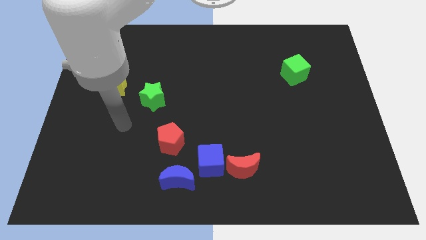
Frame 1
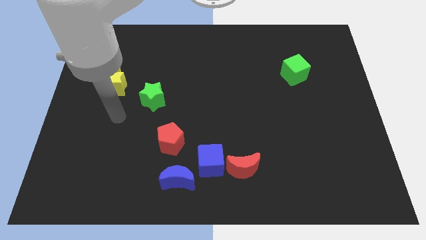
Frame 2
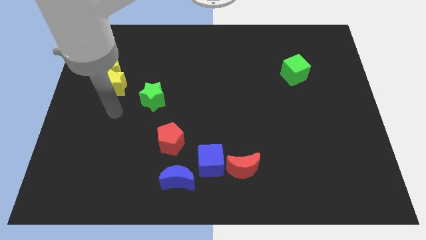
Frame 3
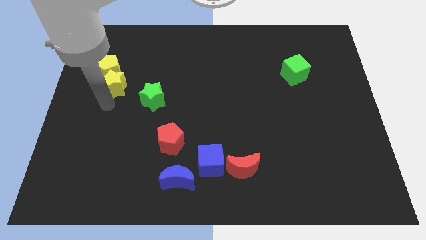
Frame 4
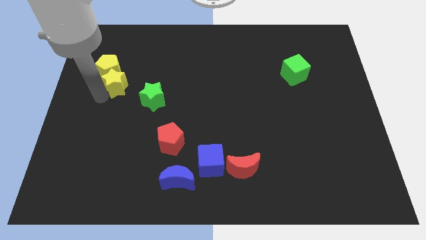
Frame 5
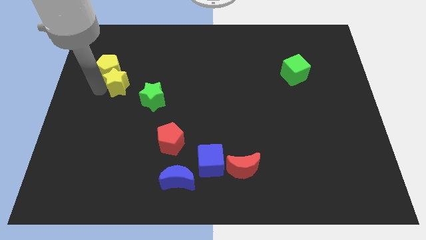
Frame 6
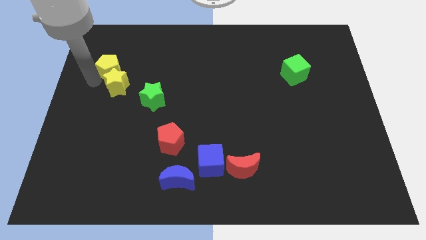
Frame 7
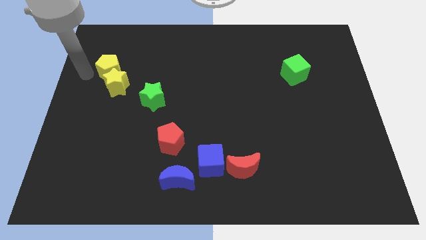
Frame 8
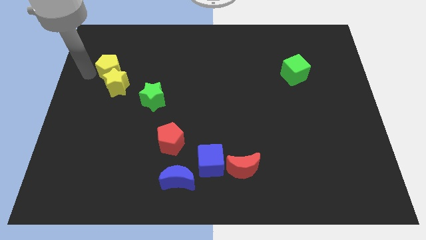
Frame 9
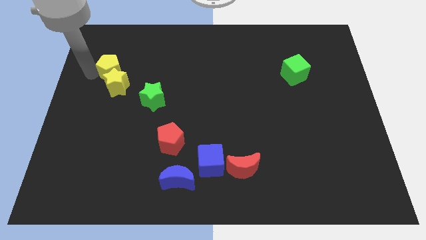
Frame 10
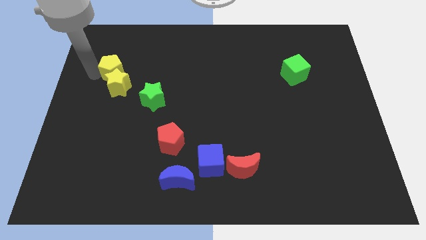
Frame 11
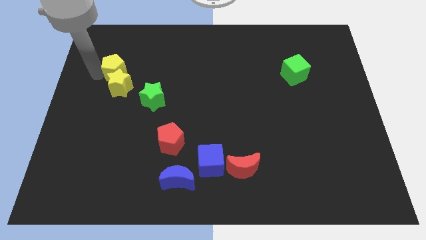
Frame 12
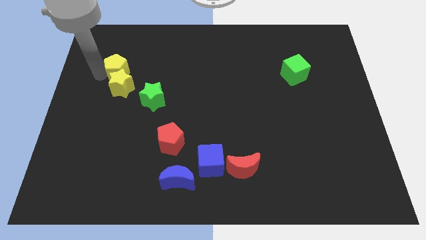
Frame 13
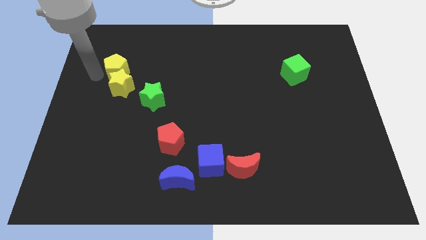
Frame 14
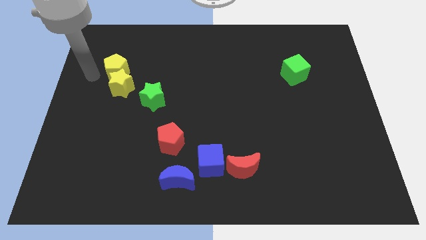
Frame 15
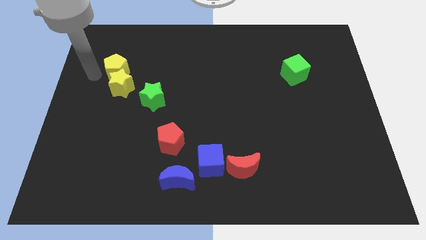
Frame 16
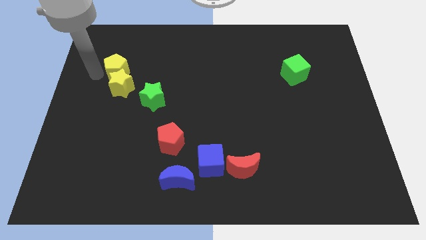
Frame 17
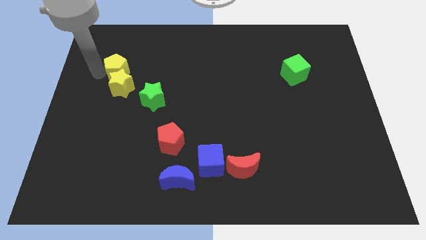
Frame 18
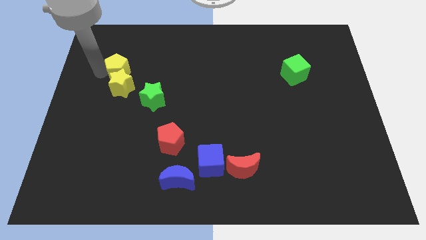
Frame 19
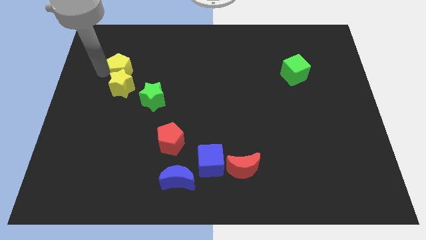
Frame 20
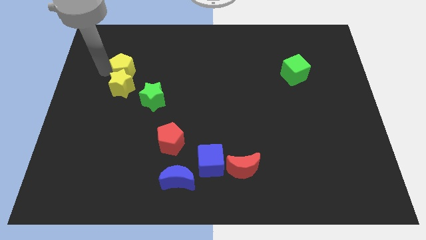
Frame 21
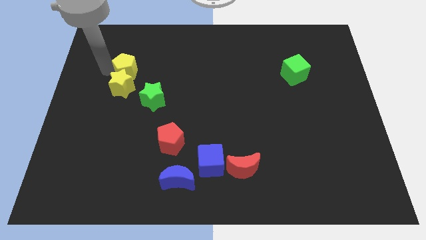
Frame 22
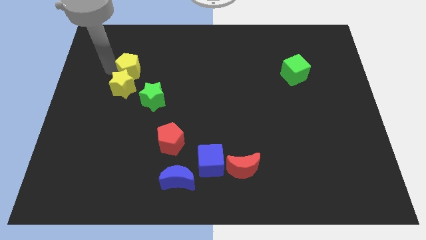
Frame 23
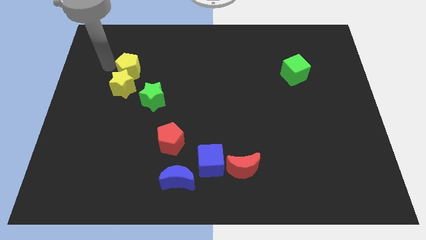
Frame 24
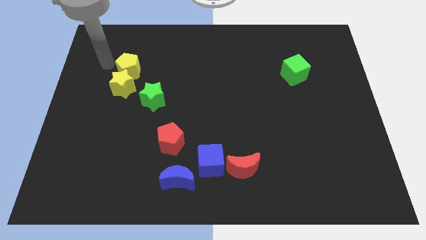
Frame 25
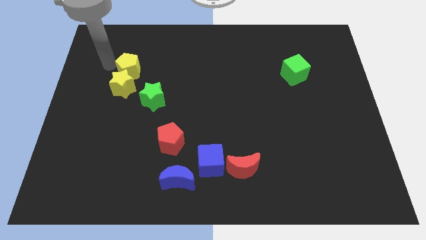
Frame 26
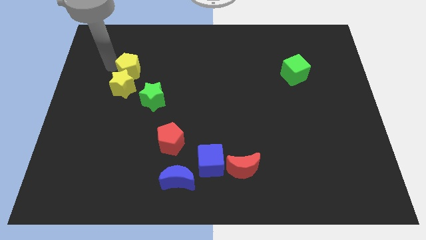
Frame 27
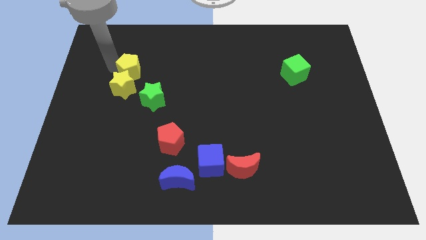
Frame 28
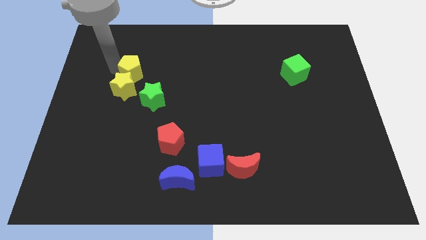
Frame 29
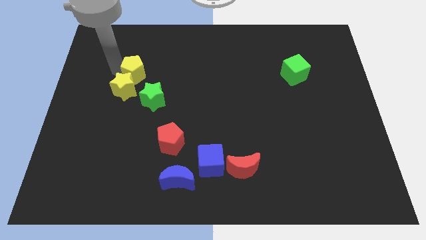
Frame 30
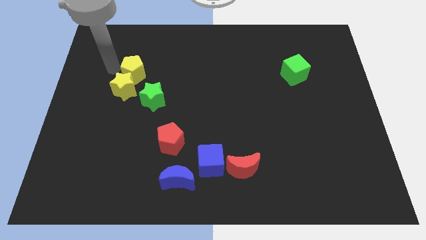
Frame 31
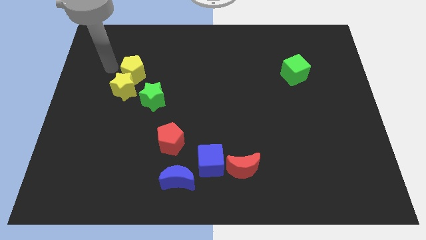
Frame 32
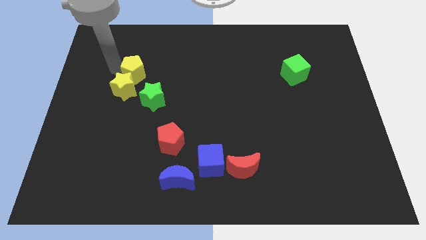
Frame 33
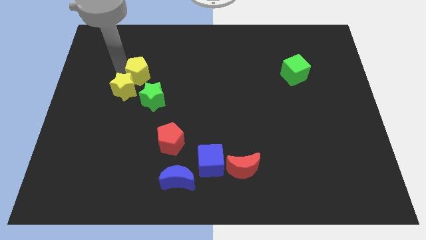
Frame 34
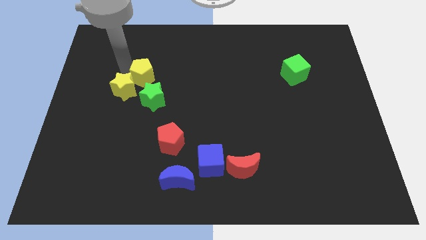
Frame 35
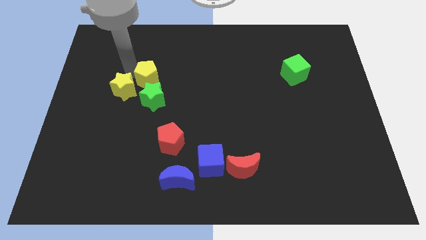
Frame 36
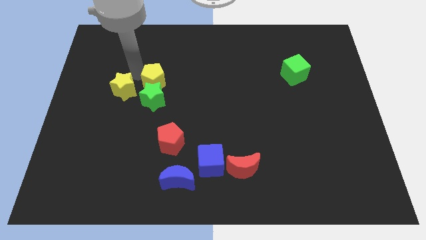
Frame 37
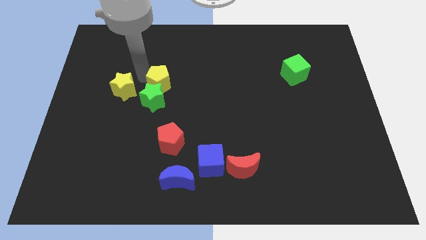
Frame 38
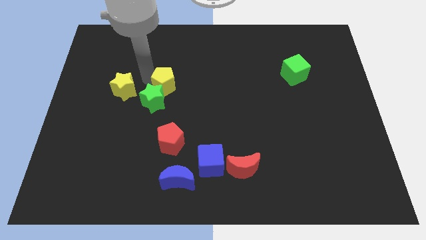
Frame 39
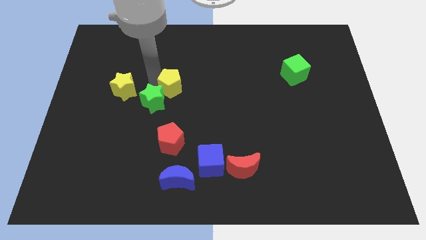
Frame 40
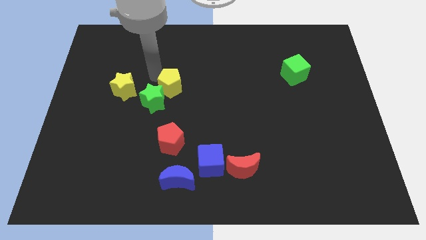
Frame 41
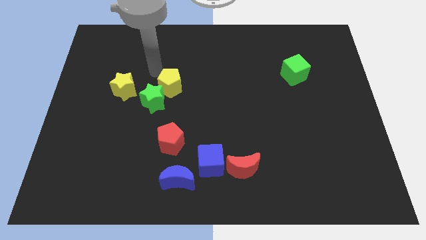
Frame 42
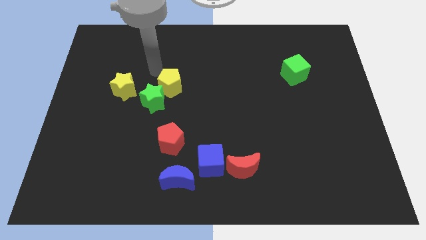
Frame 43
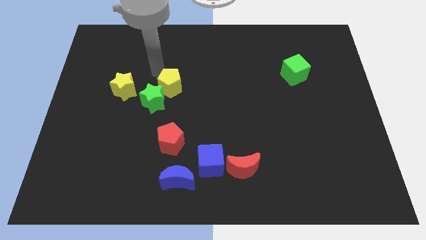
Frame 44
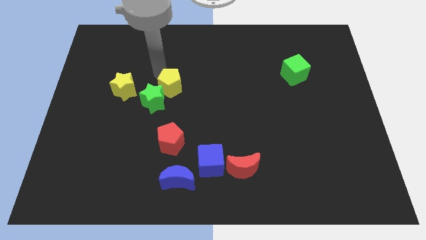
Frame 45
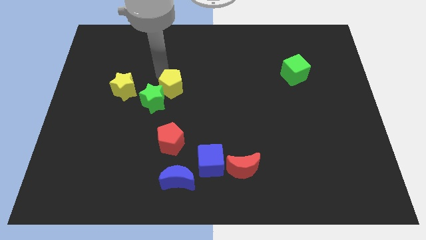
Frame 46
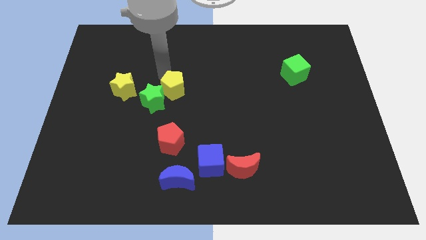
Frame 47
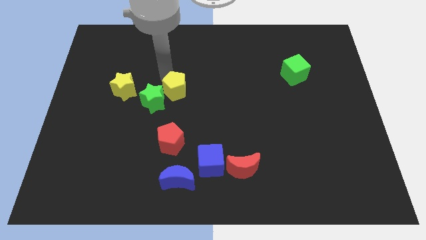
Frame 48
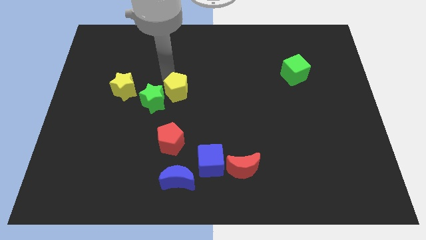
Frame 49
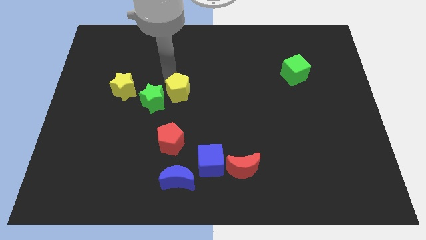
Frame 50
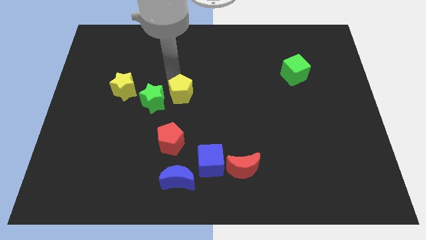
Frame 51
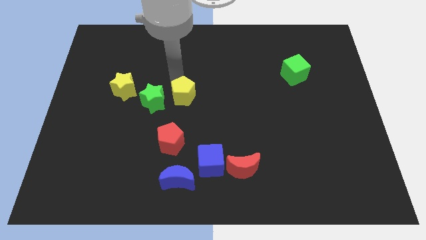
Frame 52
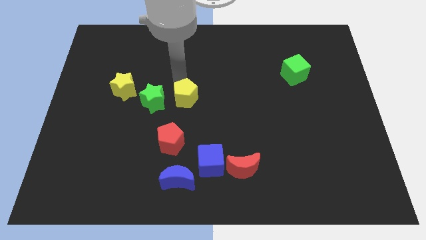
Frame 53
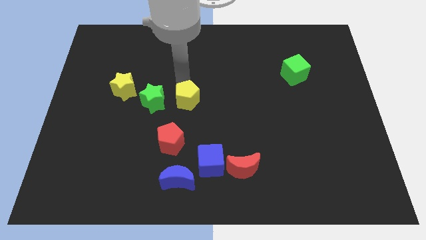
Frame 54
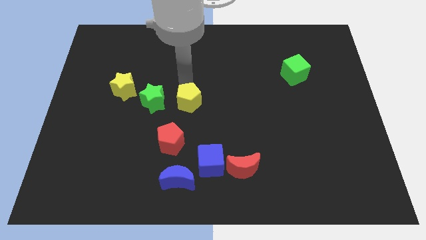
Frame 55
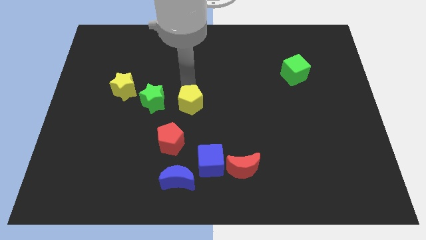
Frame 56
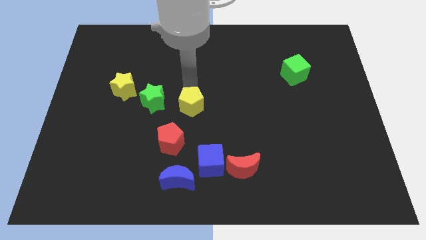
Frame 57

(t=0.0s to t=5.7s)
slide the yellow pentagon diagonally down and to the right

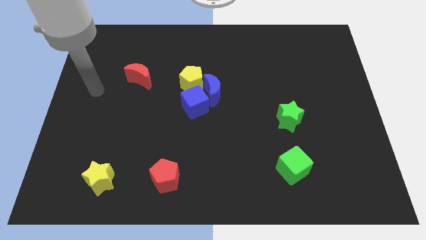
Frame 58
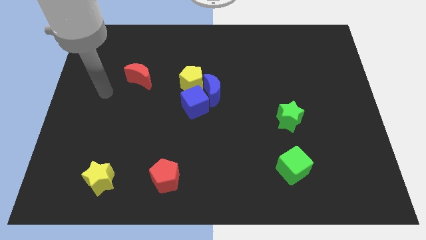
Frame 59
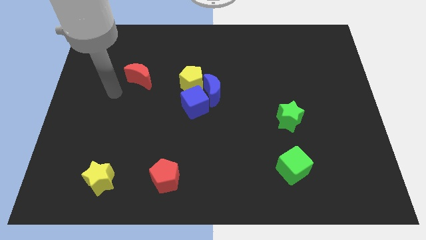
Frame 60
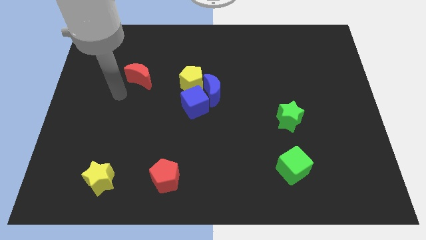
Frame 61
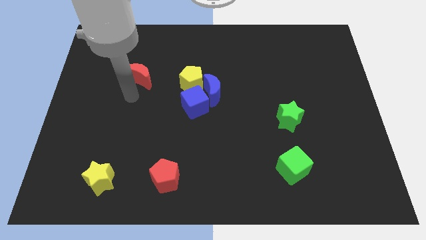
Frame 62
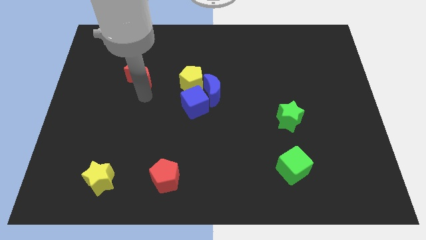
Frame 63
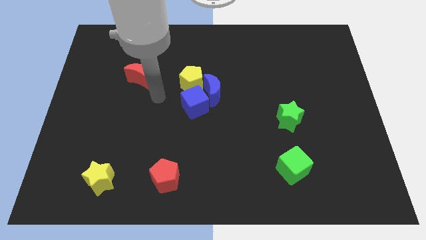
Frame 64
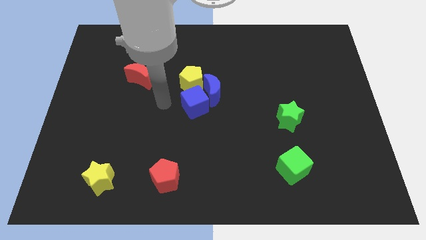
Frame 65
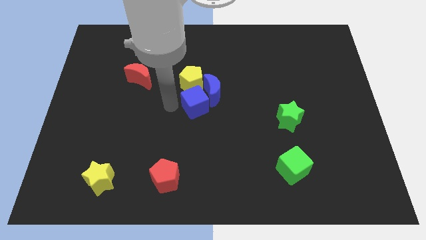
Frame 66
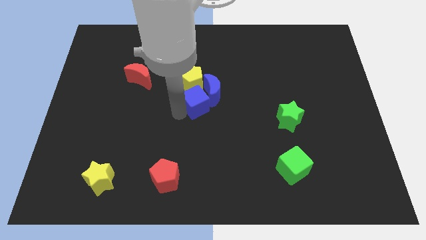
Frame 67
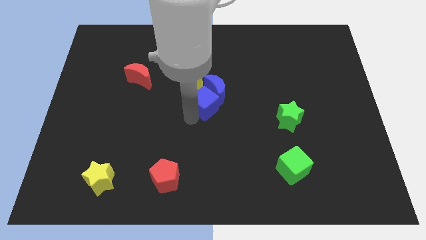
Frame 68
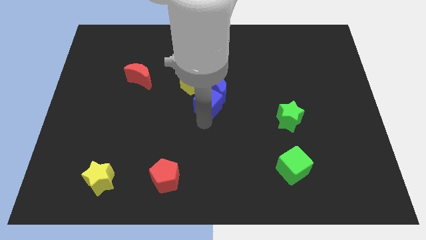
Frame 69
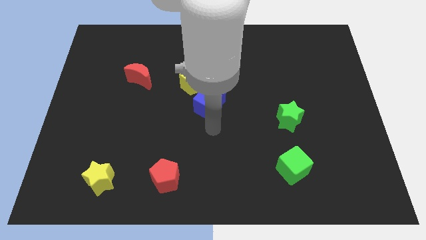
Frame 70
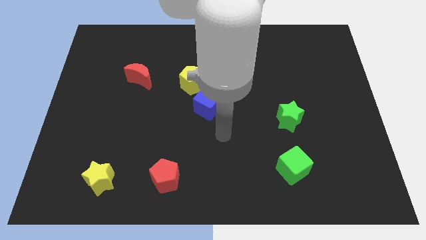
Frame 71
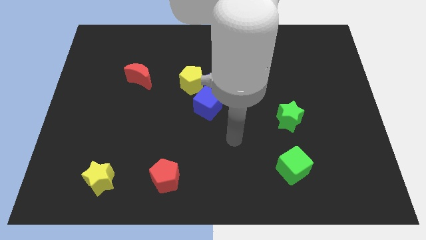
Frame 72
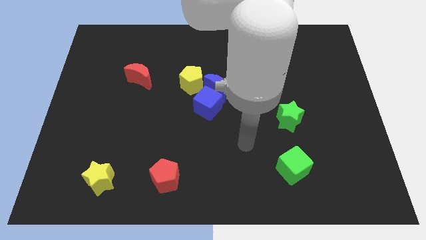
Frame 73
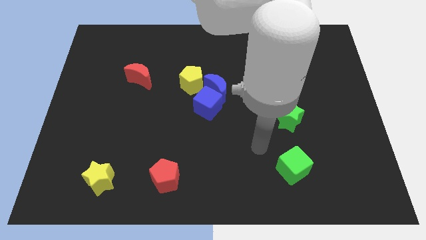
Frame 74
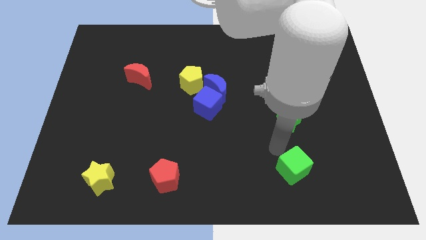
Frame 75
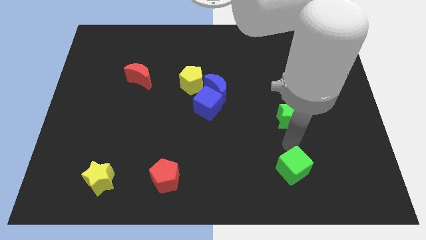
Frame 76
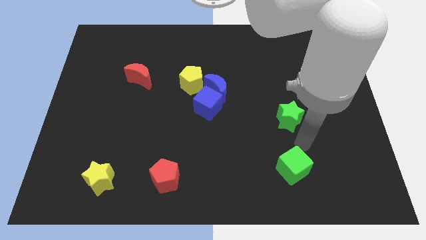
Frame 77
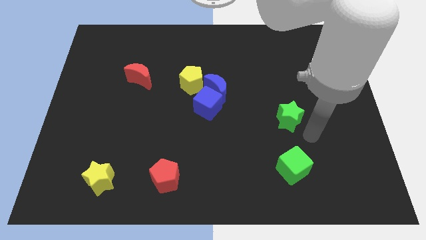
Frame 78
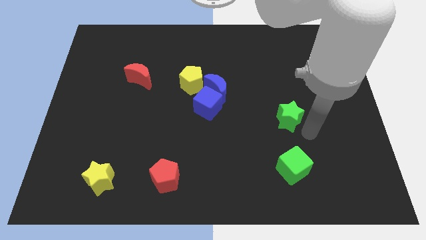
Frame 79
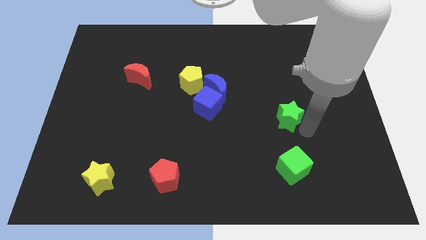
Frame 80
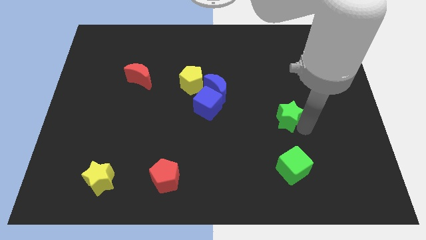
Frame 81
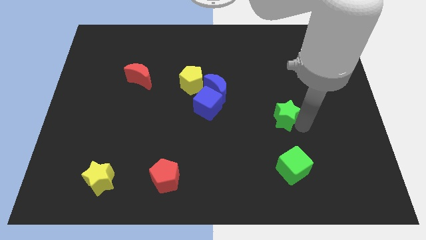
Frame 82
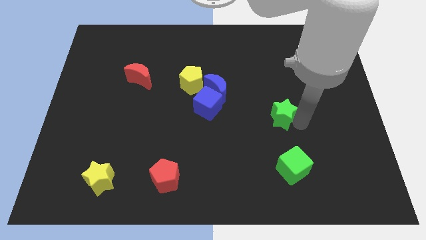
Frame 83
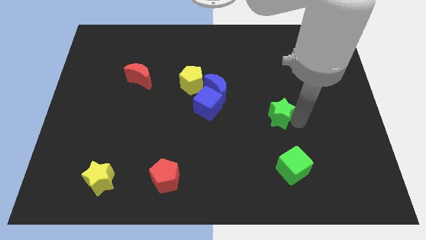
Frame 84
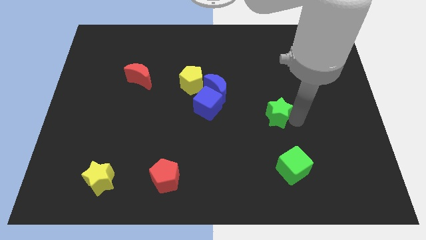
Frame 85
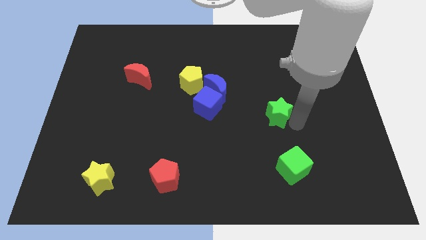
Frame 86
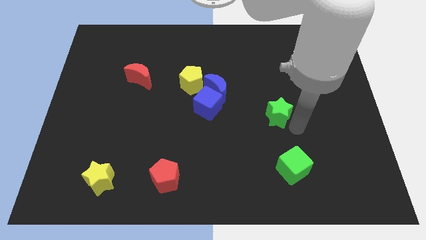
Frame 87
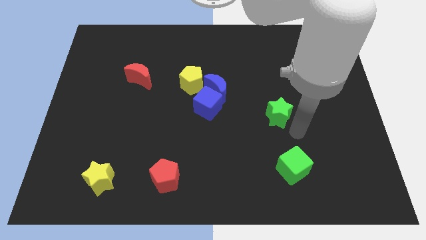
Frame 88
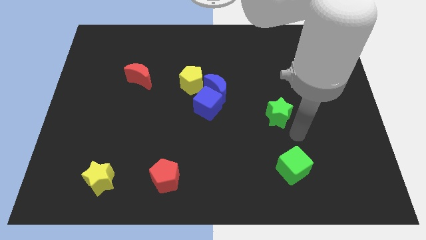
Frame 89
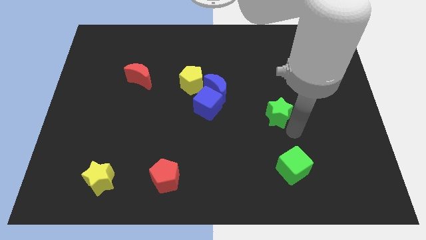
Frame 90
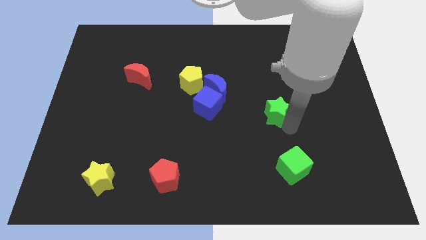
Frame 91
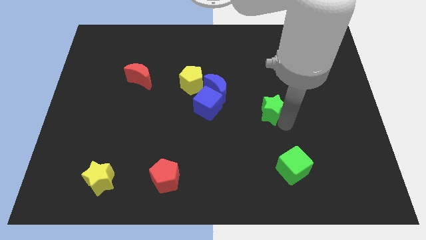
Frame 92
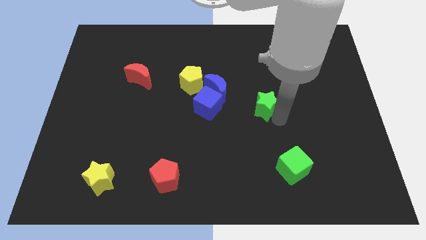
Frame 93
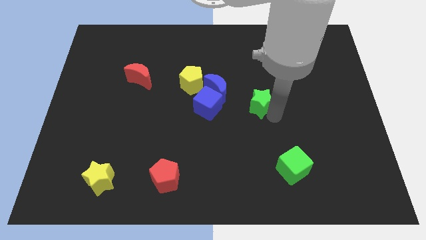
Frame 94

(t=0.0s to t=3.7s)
slightly slide the green star diagonally up and left
